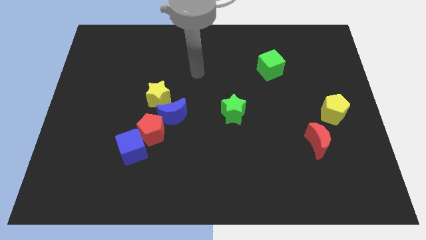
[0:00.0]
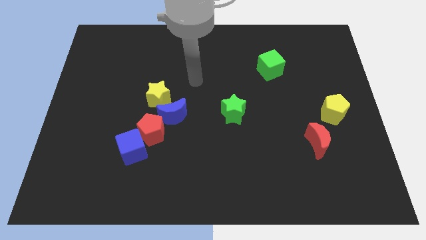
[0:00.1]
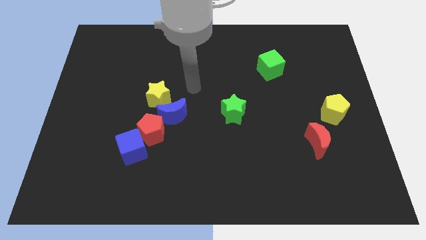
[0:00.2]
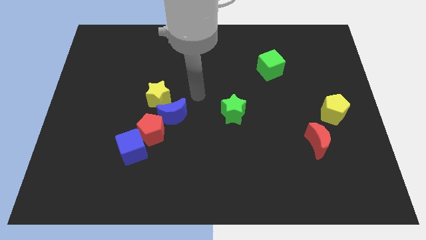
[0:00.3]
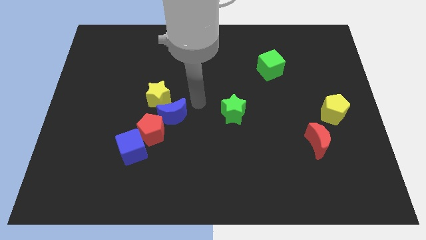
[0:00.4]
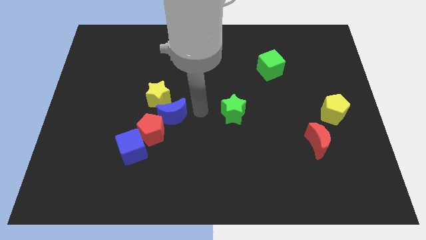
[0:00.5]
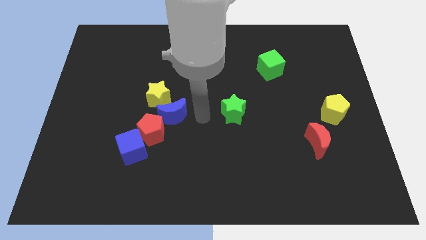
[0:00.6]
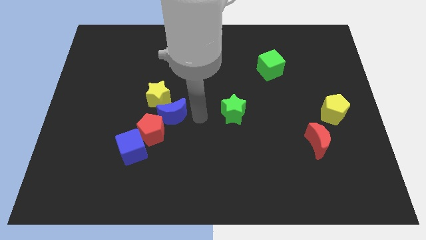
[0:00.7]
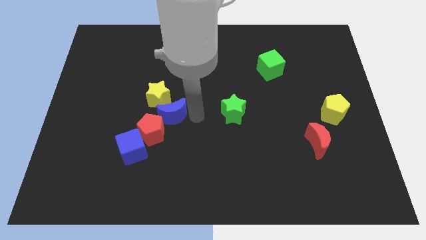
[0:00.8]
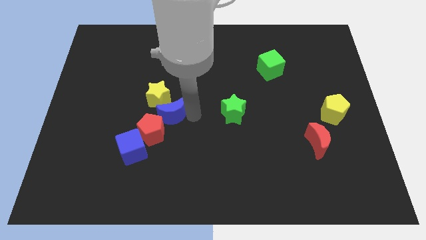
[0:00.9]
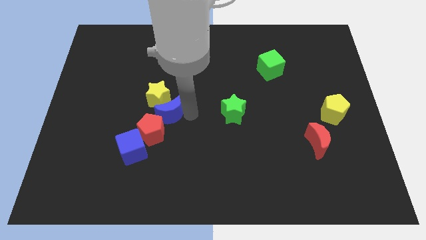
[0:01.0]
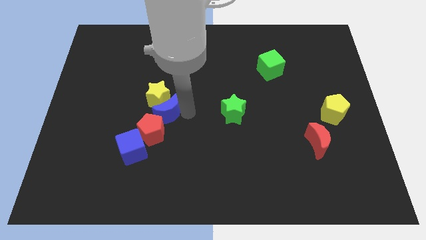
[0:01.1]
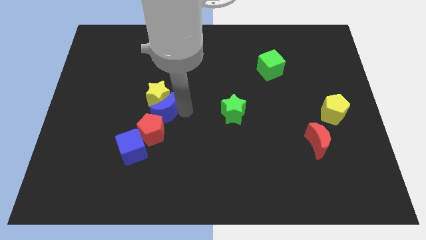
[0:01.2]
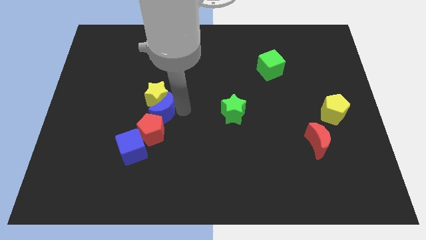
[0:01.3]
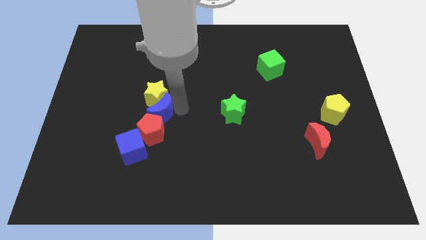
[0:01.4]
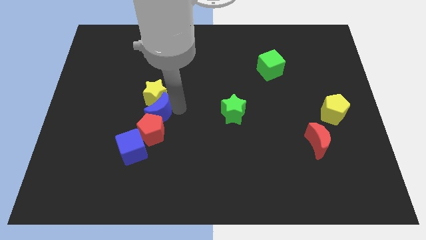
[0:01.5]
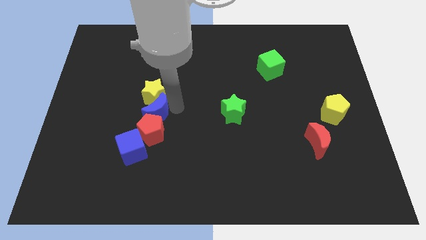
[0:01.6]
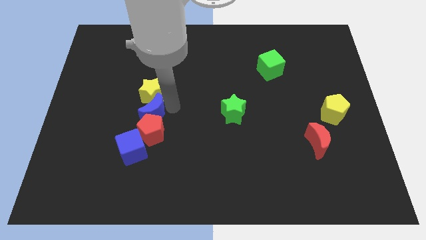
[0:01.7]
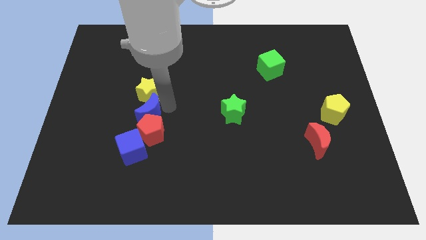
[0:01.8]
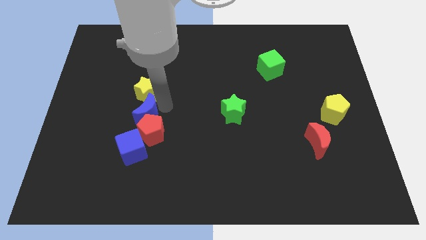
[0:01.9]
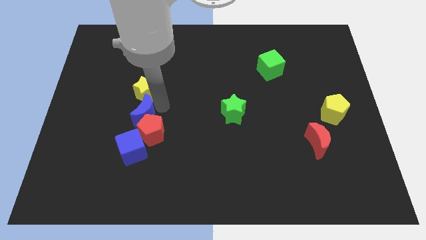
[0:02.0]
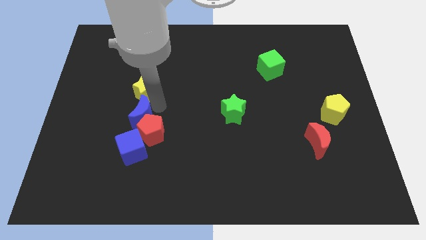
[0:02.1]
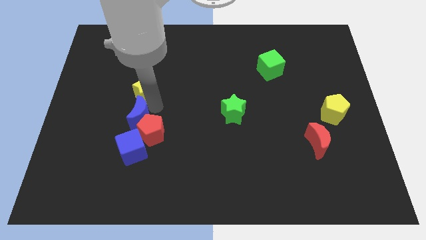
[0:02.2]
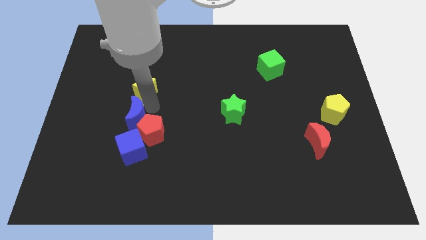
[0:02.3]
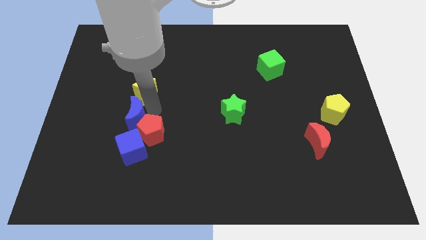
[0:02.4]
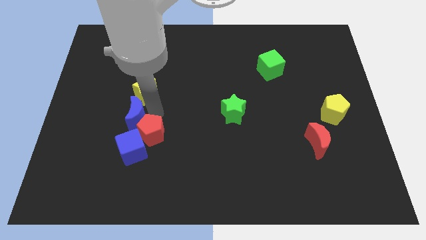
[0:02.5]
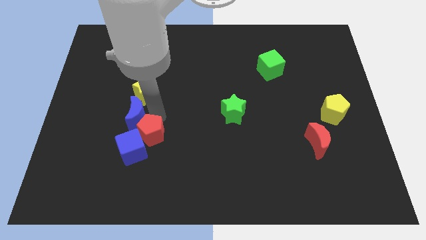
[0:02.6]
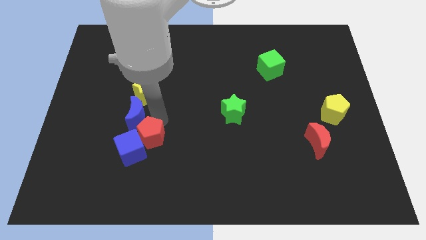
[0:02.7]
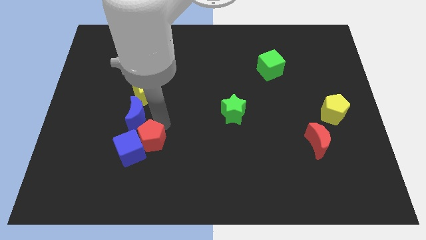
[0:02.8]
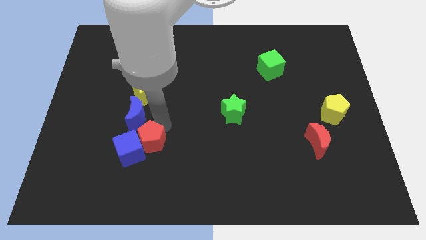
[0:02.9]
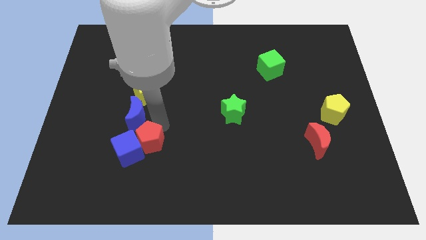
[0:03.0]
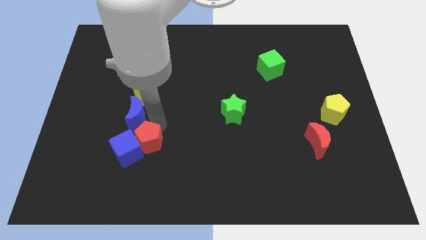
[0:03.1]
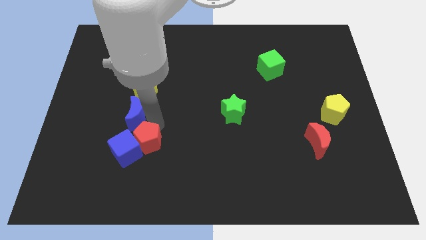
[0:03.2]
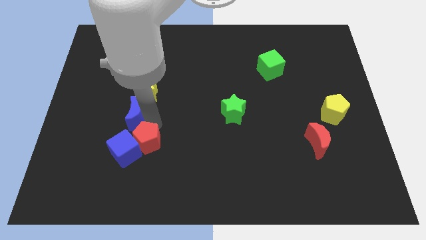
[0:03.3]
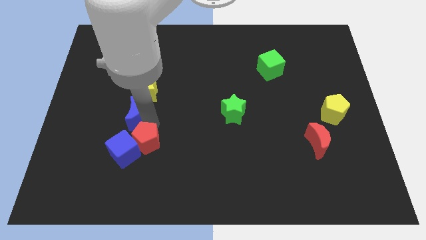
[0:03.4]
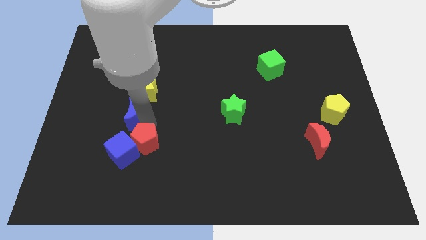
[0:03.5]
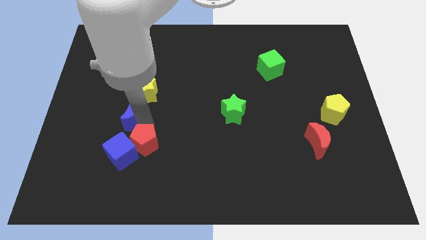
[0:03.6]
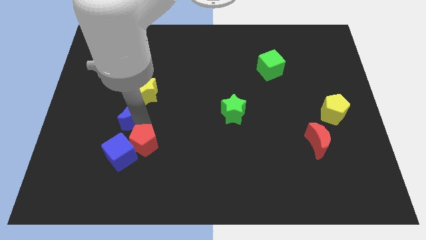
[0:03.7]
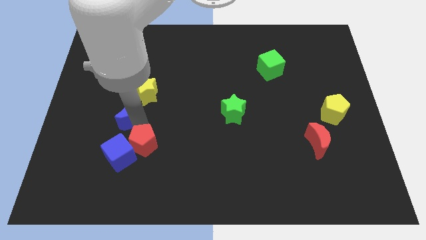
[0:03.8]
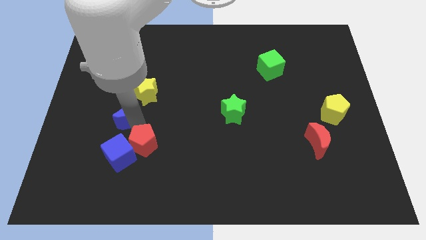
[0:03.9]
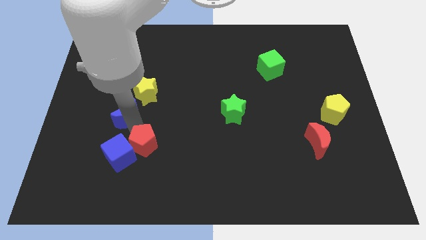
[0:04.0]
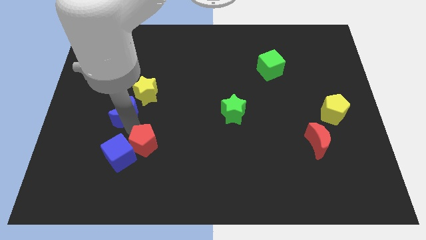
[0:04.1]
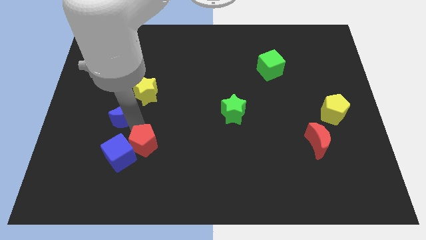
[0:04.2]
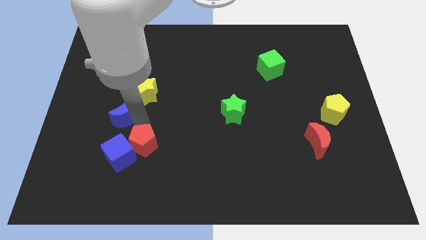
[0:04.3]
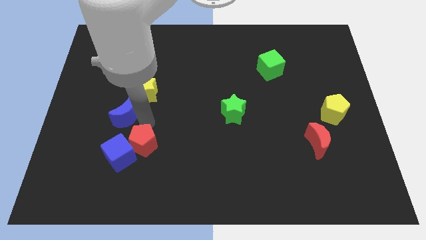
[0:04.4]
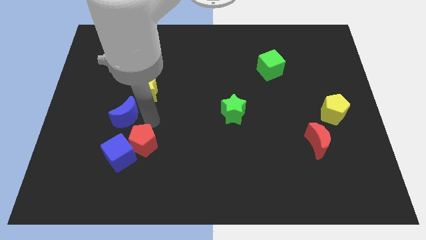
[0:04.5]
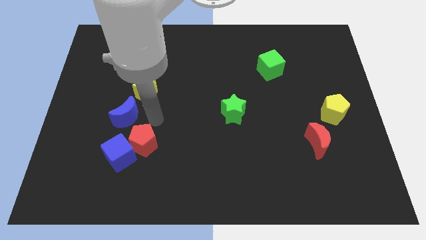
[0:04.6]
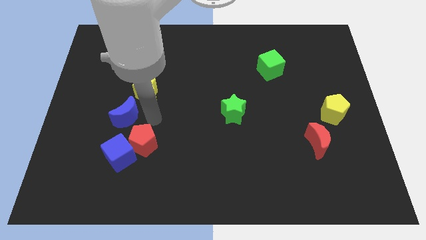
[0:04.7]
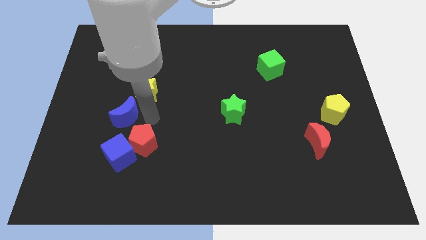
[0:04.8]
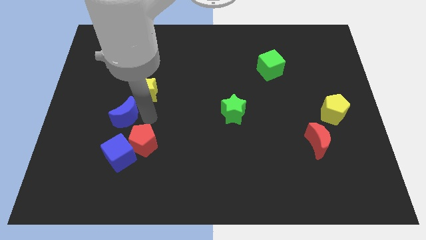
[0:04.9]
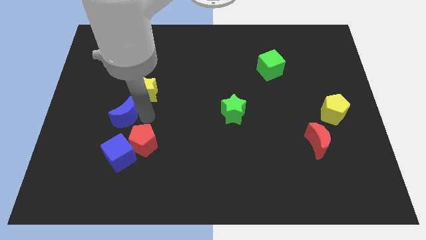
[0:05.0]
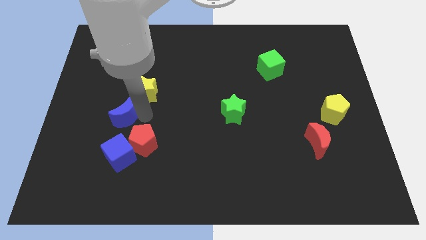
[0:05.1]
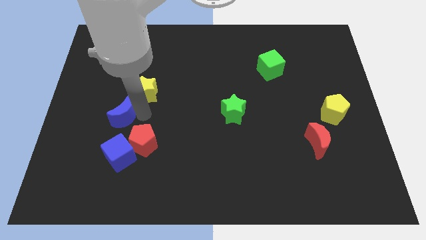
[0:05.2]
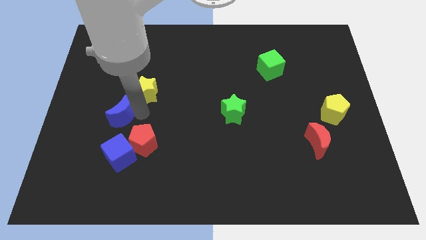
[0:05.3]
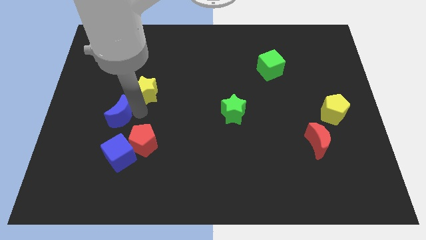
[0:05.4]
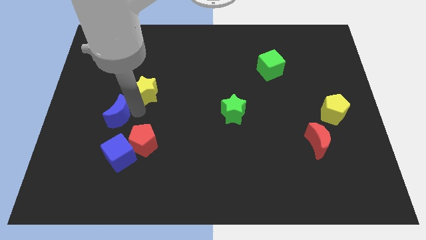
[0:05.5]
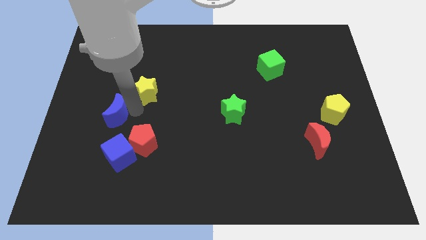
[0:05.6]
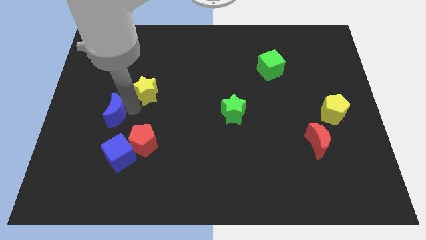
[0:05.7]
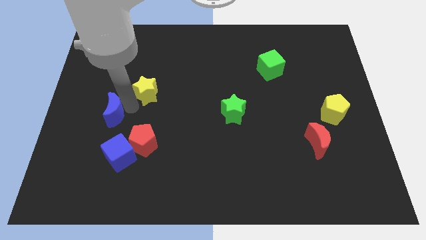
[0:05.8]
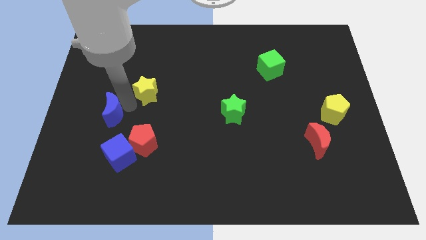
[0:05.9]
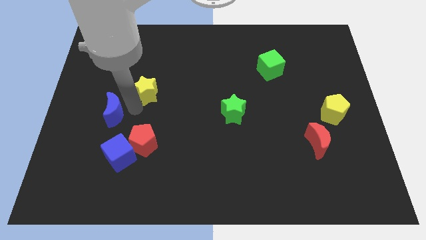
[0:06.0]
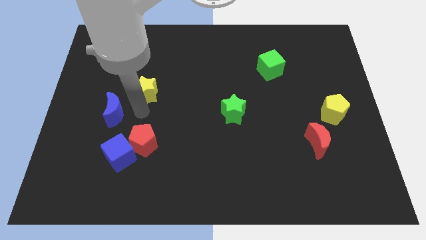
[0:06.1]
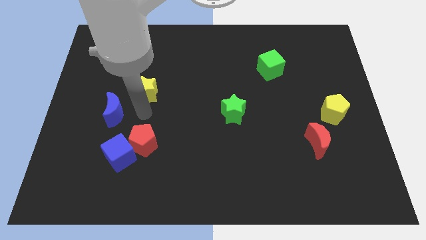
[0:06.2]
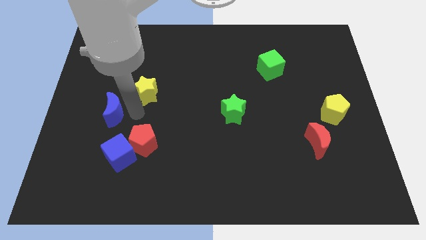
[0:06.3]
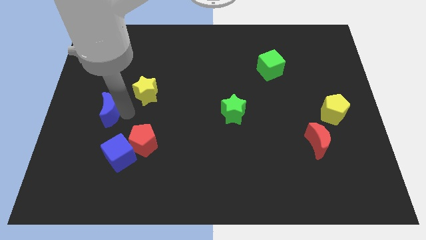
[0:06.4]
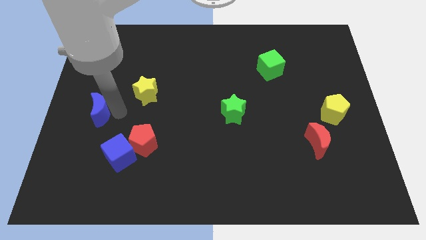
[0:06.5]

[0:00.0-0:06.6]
put the blue moon to the left side of the board
